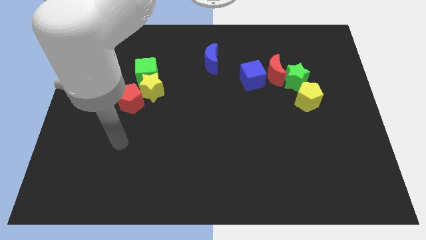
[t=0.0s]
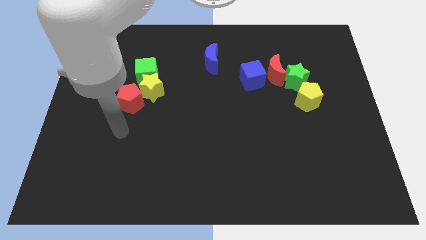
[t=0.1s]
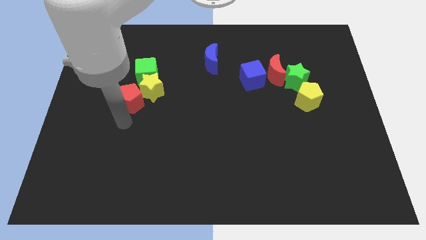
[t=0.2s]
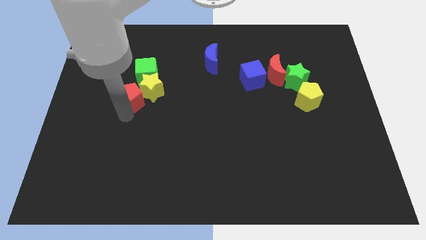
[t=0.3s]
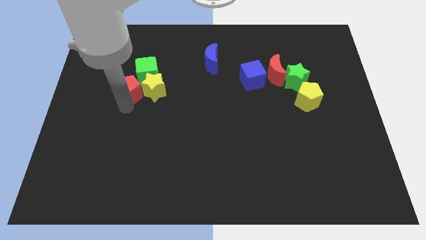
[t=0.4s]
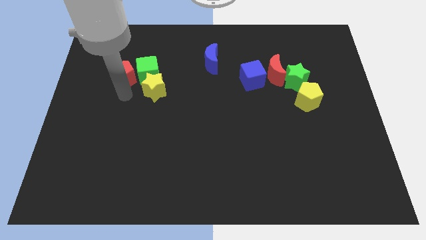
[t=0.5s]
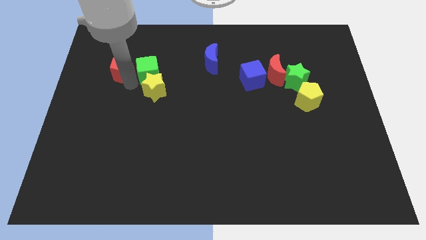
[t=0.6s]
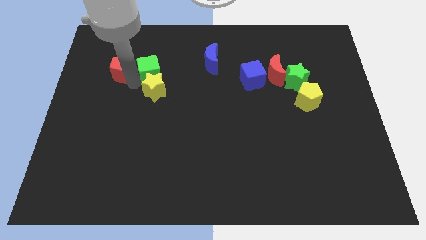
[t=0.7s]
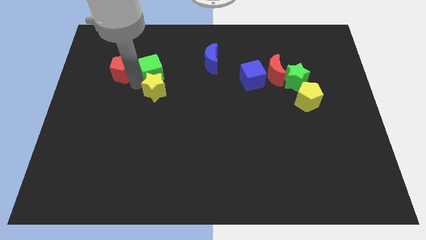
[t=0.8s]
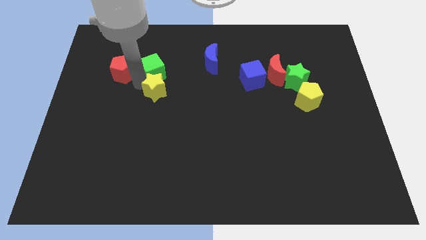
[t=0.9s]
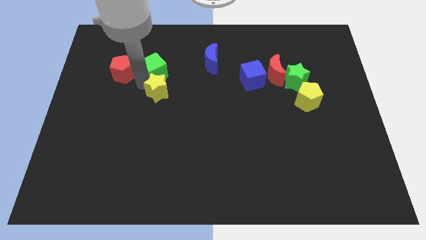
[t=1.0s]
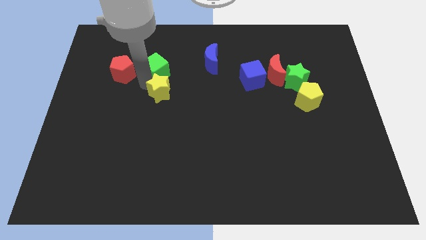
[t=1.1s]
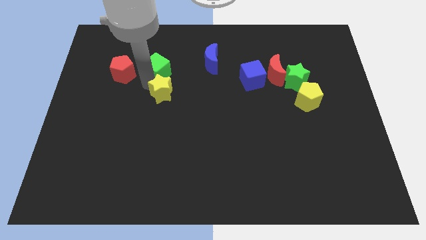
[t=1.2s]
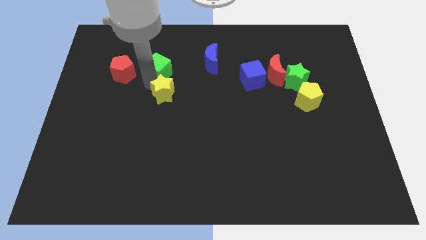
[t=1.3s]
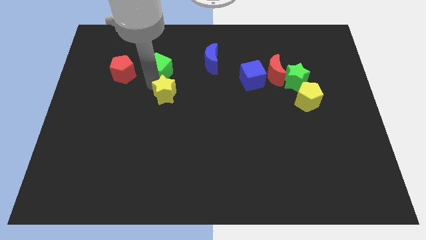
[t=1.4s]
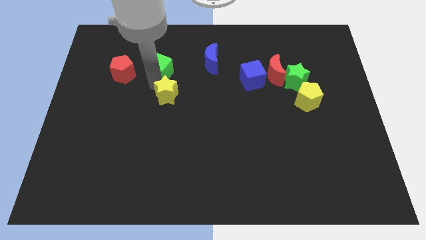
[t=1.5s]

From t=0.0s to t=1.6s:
separate the yellow star from the green cube and red pentagon

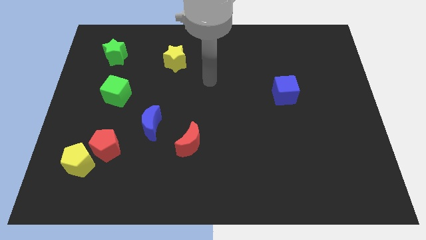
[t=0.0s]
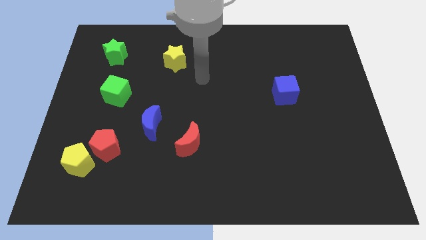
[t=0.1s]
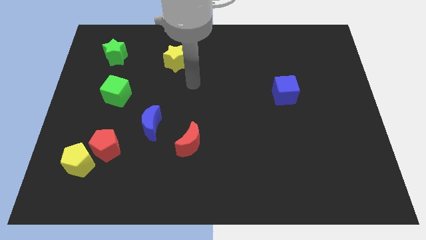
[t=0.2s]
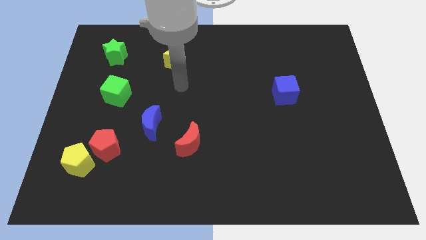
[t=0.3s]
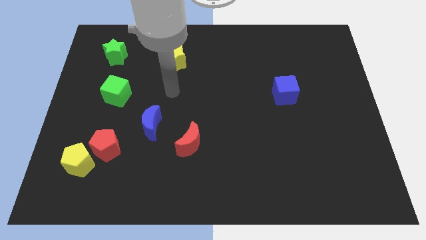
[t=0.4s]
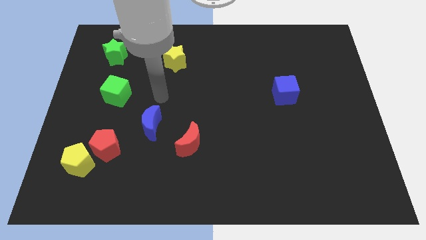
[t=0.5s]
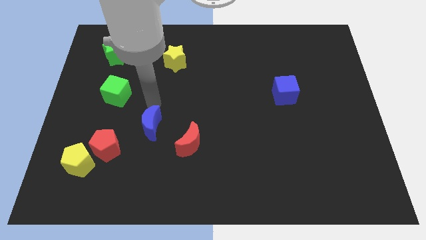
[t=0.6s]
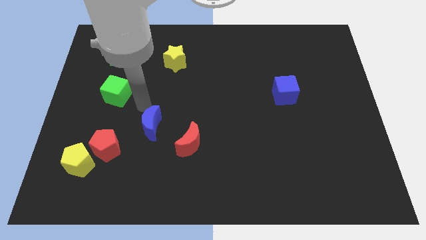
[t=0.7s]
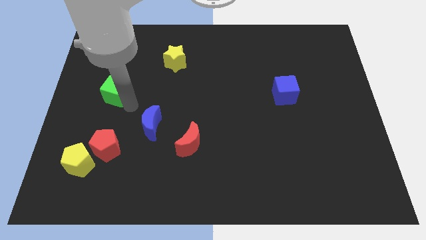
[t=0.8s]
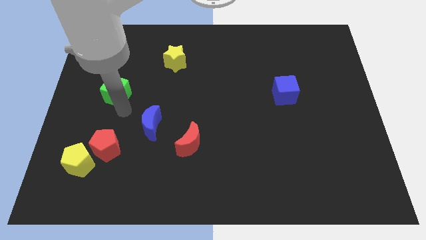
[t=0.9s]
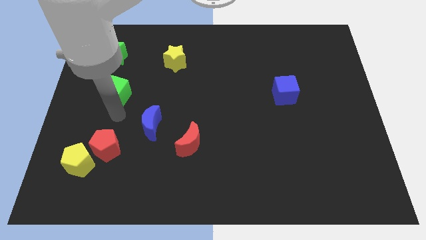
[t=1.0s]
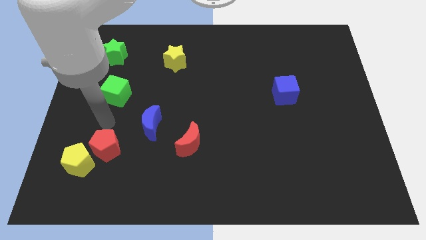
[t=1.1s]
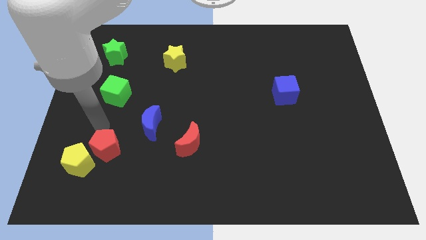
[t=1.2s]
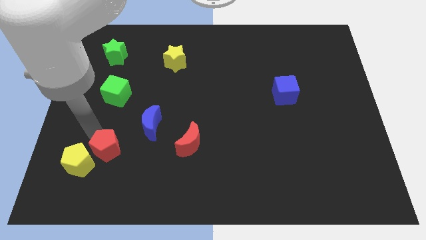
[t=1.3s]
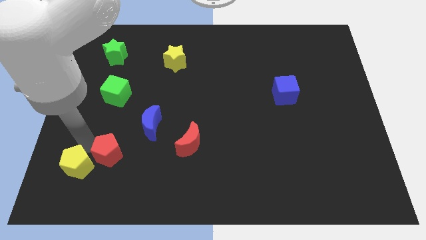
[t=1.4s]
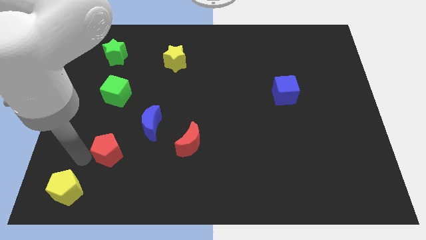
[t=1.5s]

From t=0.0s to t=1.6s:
separate the red pentagon from the yellow pentagon

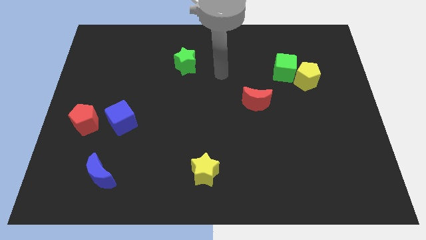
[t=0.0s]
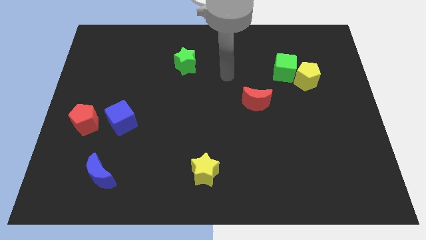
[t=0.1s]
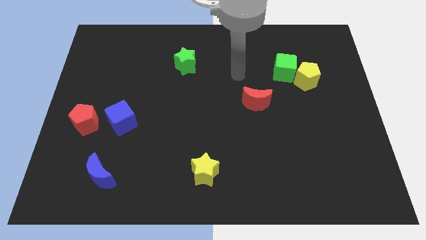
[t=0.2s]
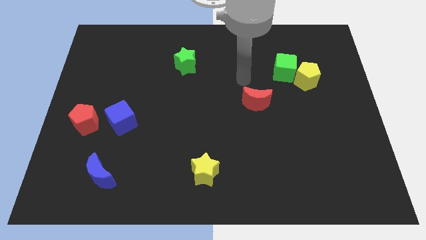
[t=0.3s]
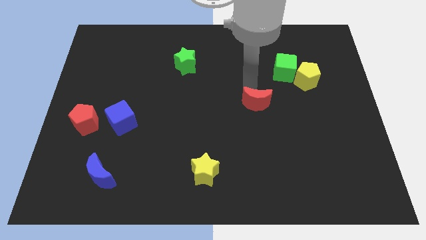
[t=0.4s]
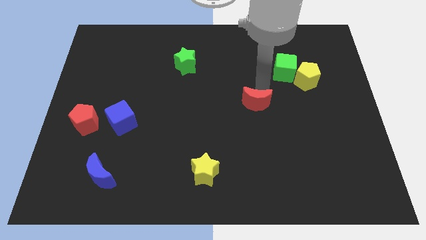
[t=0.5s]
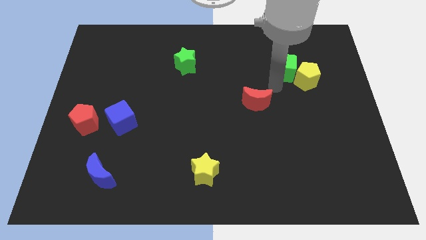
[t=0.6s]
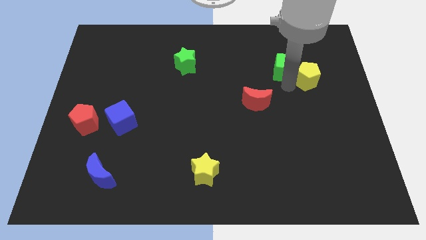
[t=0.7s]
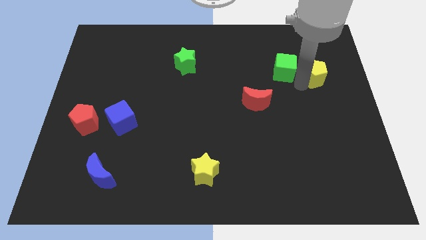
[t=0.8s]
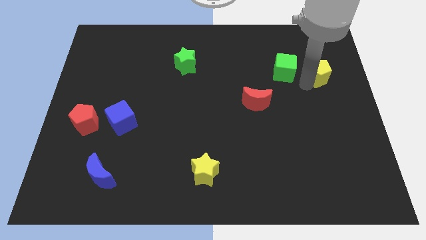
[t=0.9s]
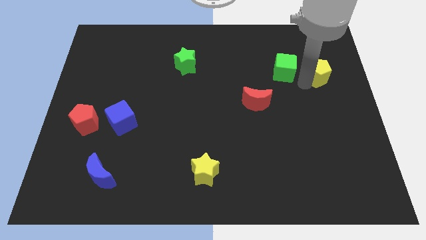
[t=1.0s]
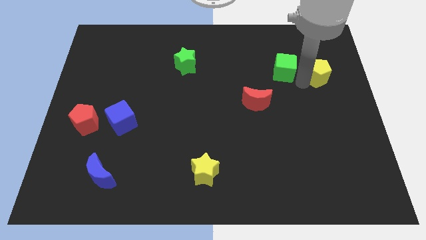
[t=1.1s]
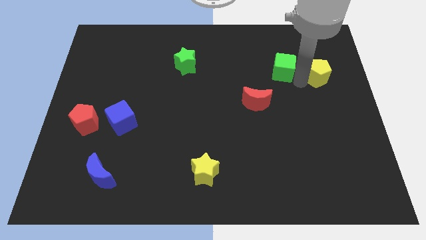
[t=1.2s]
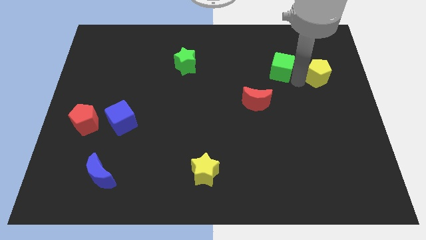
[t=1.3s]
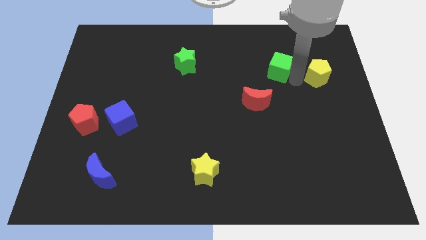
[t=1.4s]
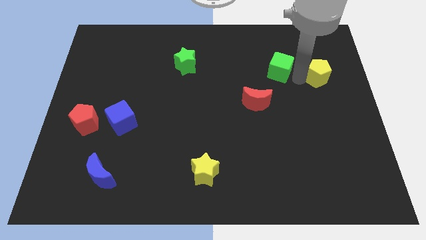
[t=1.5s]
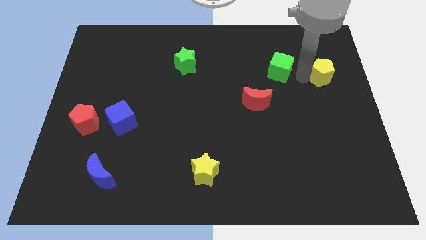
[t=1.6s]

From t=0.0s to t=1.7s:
pull the green cube apart from the yellow pentagon

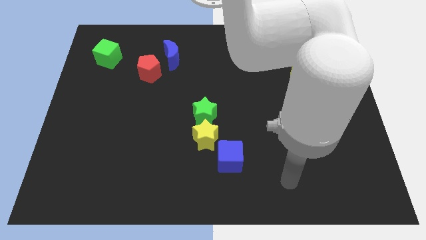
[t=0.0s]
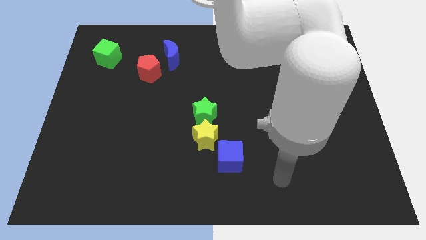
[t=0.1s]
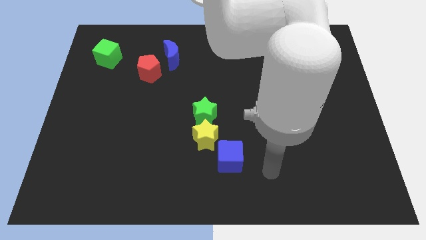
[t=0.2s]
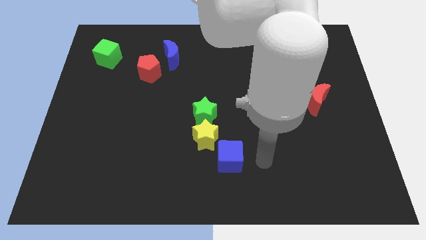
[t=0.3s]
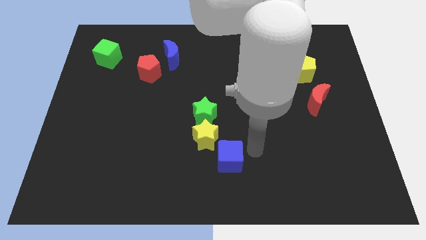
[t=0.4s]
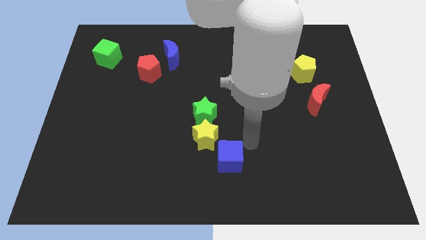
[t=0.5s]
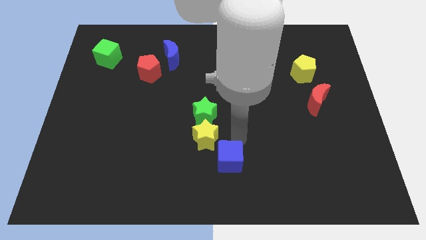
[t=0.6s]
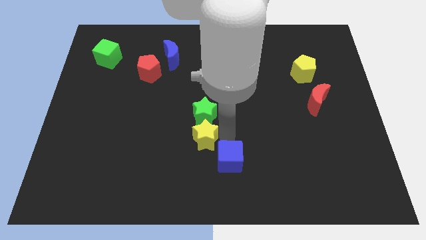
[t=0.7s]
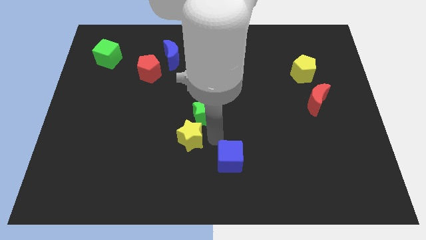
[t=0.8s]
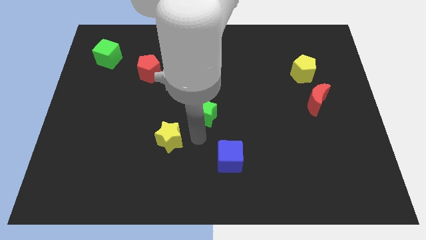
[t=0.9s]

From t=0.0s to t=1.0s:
pull the green star apart from the yellow star

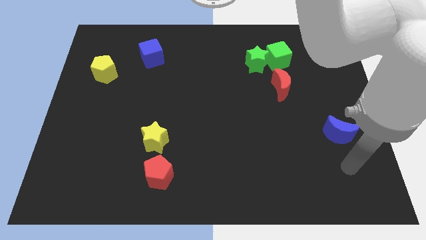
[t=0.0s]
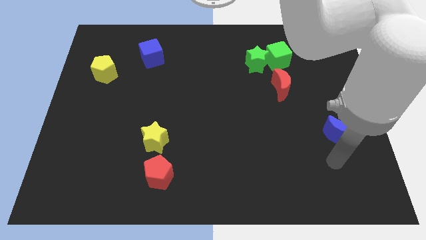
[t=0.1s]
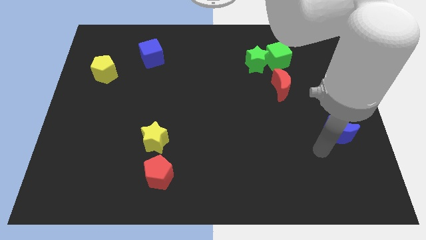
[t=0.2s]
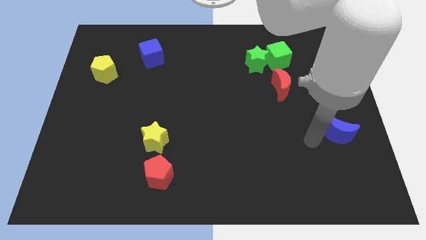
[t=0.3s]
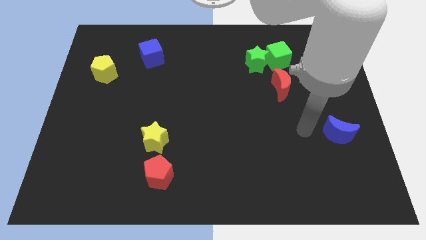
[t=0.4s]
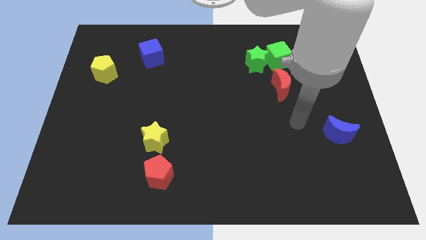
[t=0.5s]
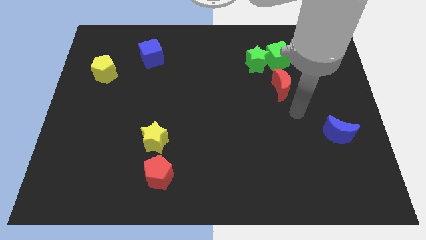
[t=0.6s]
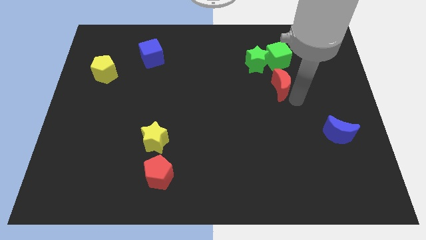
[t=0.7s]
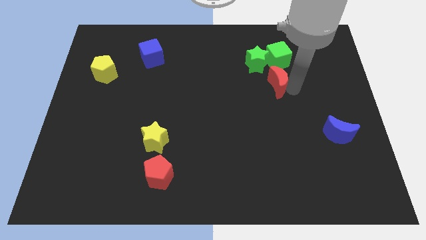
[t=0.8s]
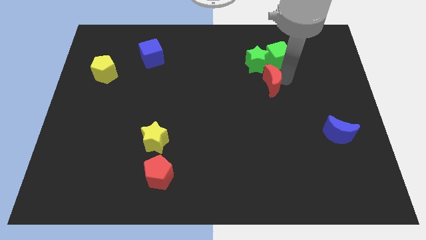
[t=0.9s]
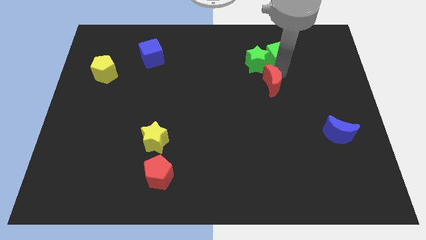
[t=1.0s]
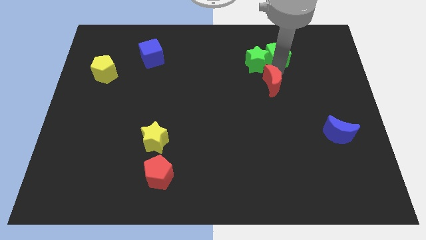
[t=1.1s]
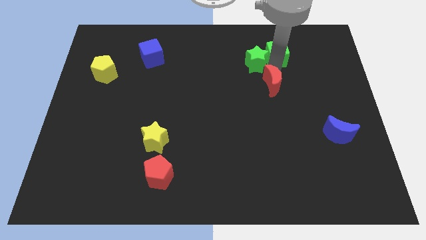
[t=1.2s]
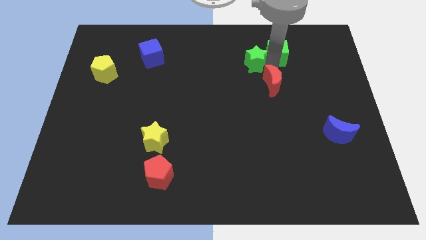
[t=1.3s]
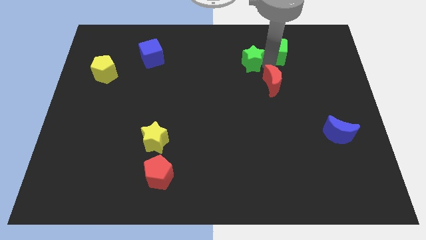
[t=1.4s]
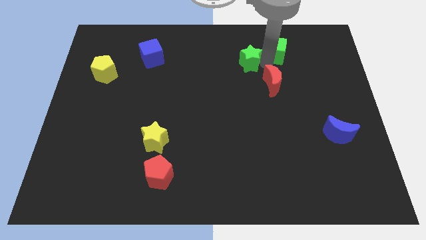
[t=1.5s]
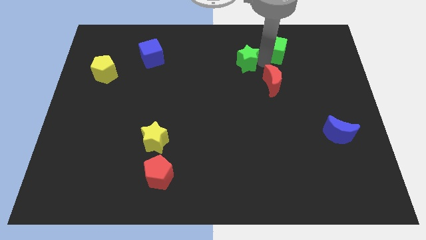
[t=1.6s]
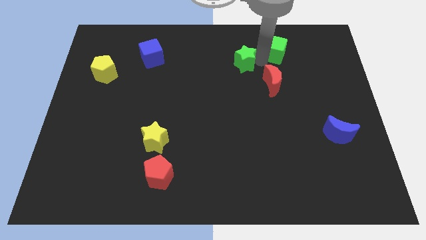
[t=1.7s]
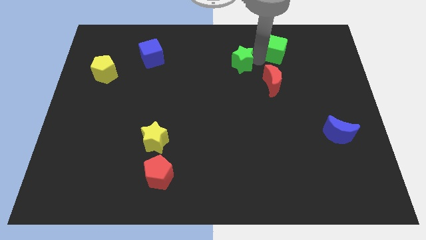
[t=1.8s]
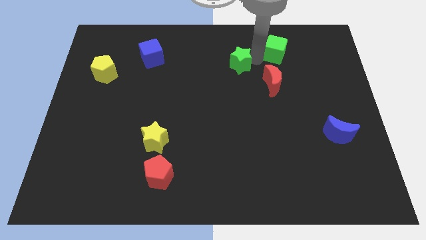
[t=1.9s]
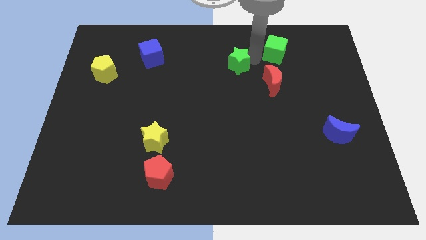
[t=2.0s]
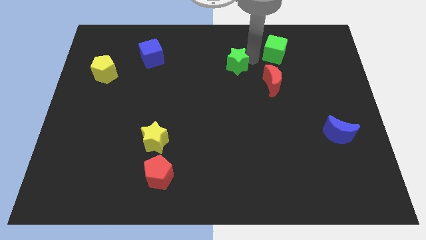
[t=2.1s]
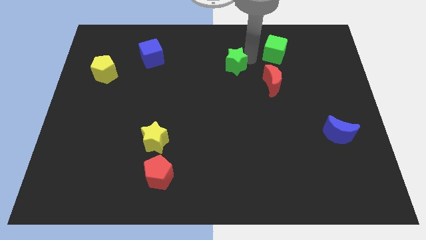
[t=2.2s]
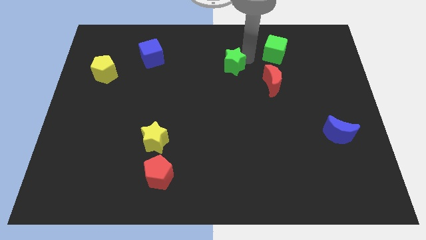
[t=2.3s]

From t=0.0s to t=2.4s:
separate the green star from the green cube and red moon

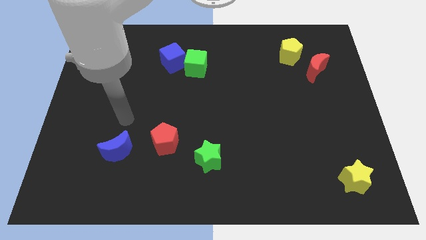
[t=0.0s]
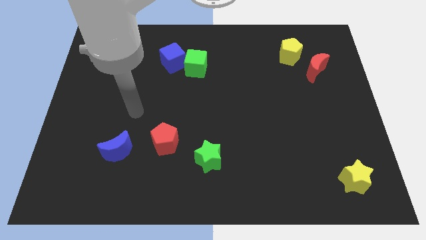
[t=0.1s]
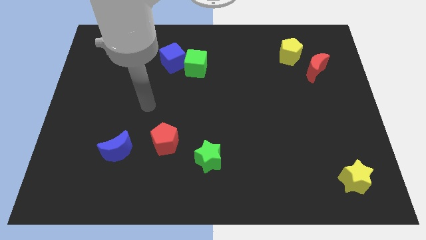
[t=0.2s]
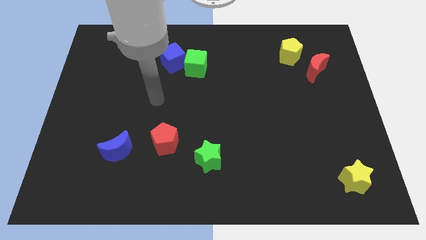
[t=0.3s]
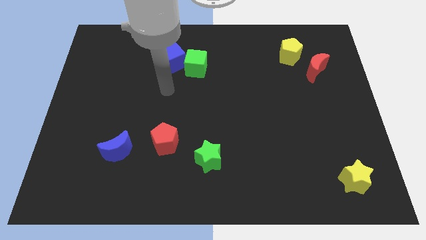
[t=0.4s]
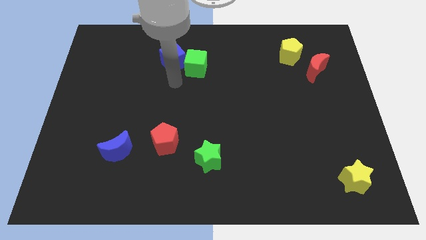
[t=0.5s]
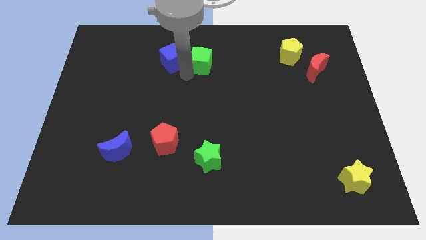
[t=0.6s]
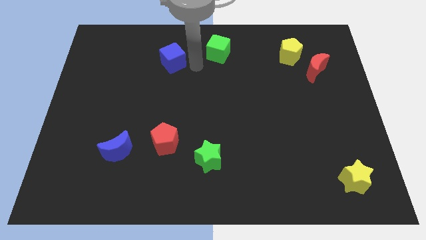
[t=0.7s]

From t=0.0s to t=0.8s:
pull the blue cube apart from the green cube
